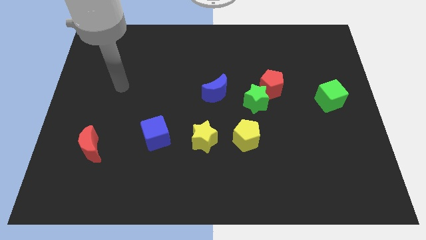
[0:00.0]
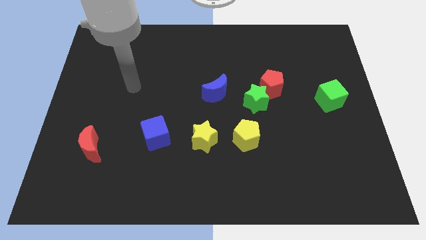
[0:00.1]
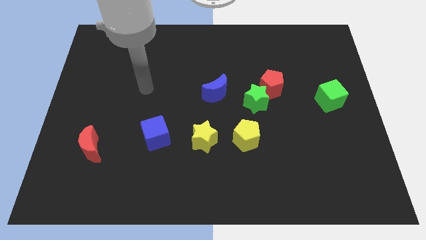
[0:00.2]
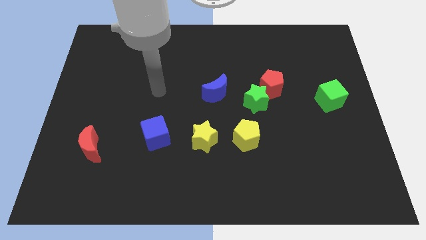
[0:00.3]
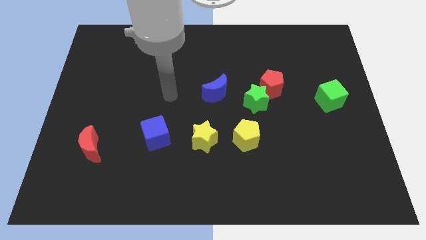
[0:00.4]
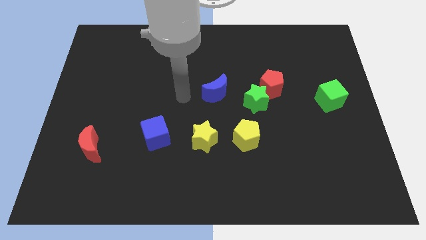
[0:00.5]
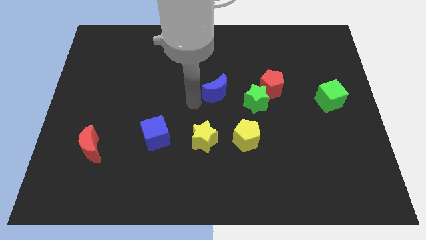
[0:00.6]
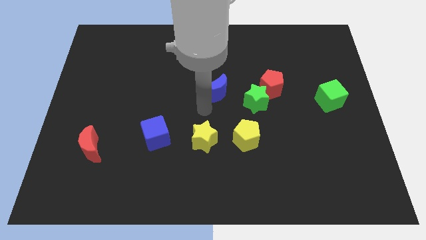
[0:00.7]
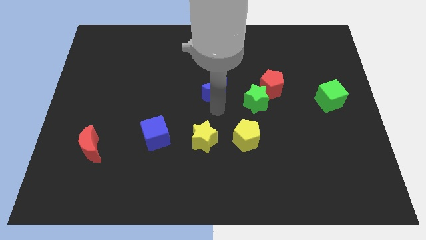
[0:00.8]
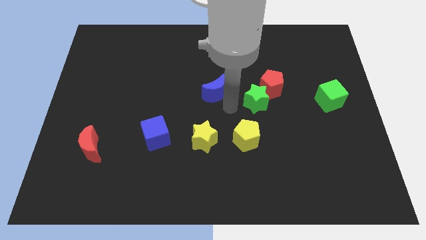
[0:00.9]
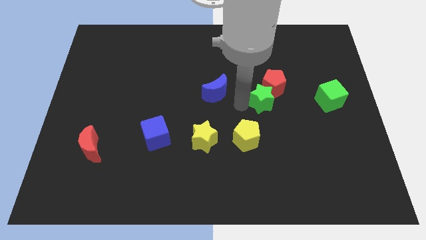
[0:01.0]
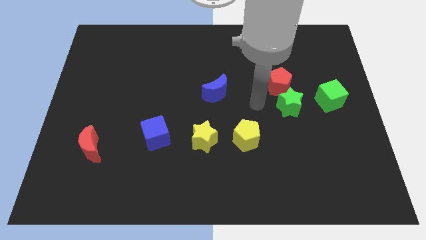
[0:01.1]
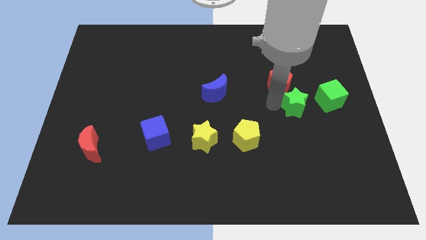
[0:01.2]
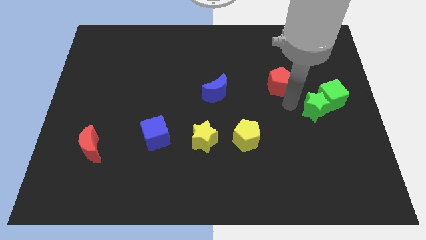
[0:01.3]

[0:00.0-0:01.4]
move the red pentagon away from the green star

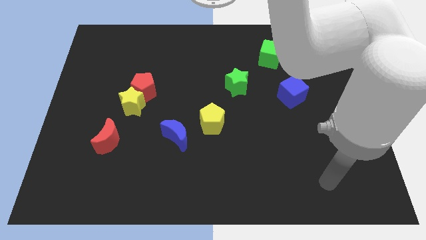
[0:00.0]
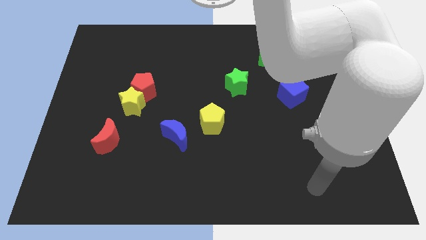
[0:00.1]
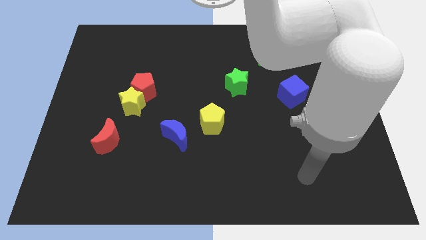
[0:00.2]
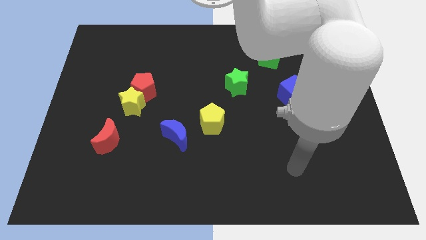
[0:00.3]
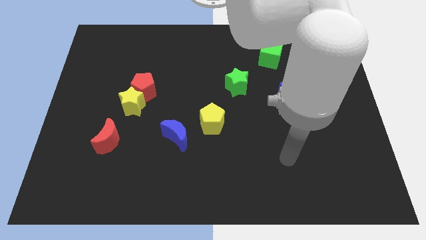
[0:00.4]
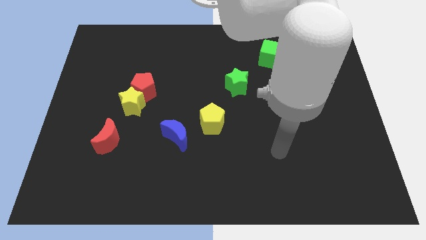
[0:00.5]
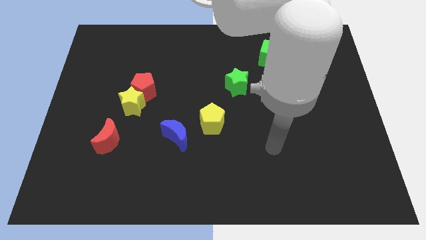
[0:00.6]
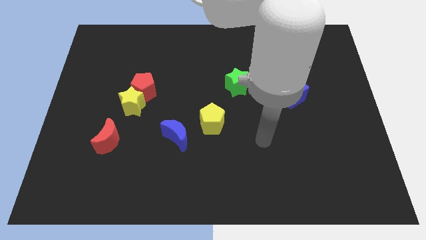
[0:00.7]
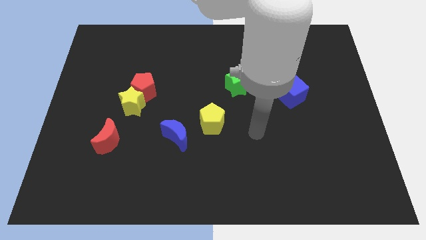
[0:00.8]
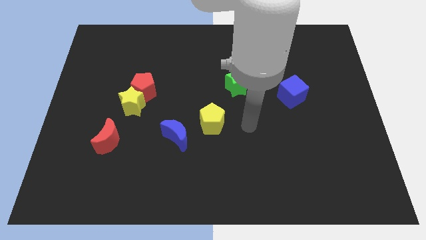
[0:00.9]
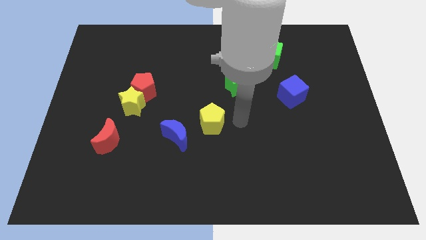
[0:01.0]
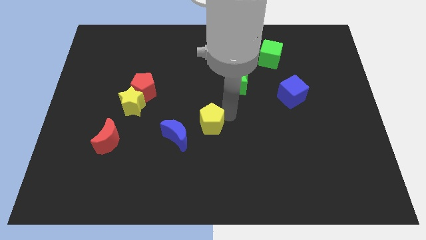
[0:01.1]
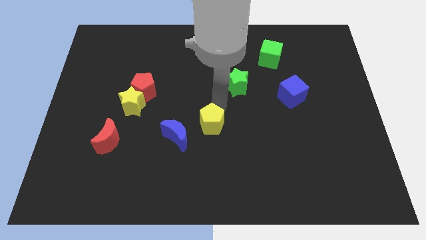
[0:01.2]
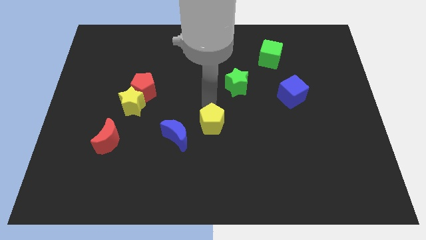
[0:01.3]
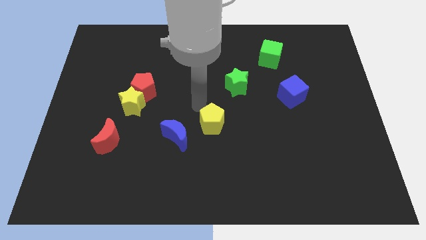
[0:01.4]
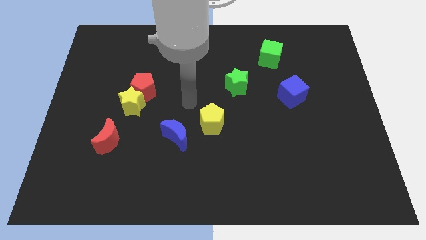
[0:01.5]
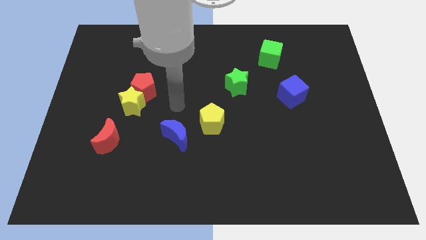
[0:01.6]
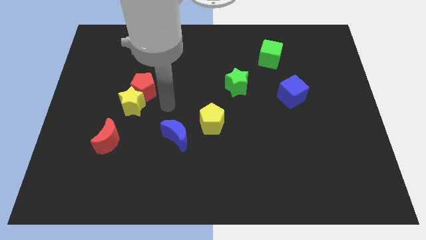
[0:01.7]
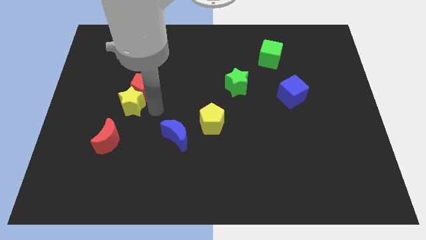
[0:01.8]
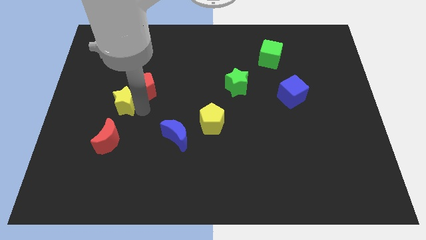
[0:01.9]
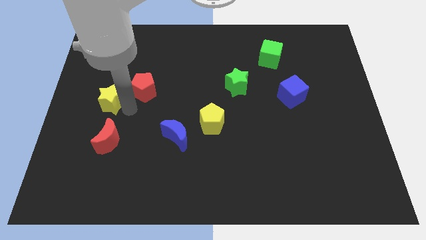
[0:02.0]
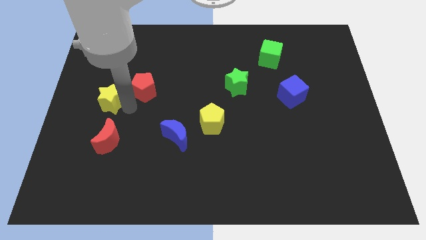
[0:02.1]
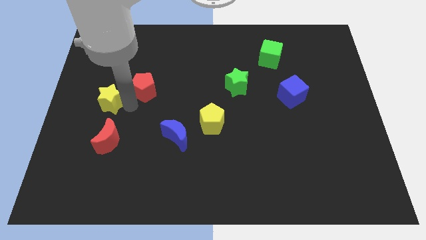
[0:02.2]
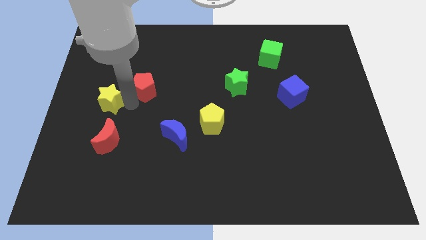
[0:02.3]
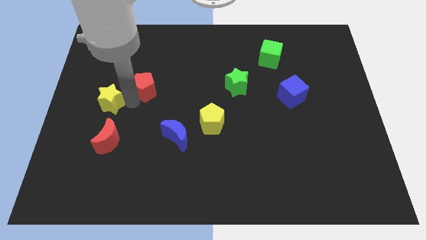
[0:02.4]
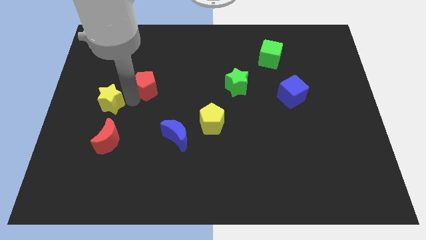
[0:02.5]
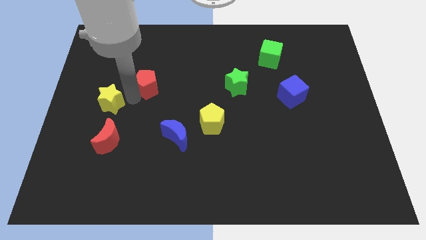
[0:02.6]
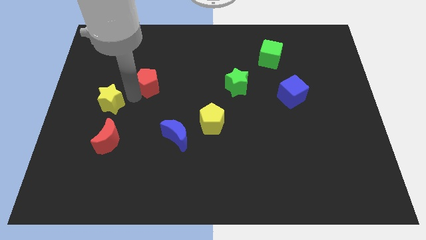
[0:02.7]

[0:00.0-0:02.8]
separate the red pentagon from the yellow star

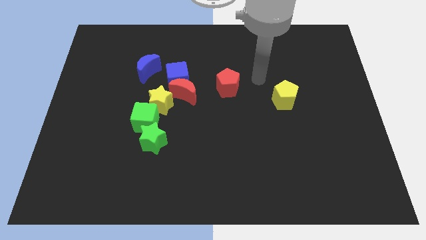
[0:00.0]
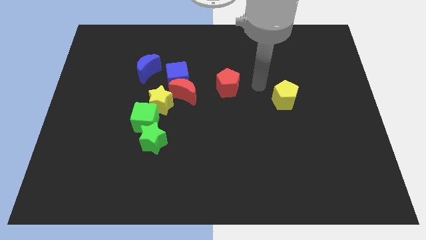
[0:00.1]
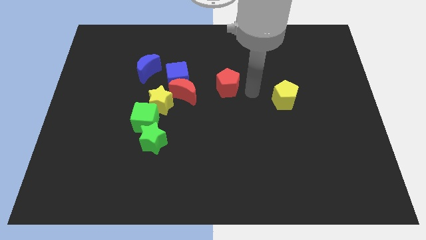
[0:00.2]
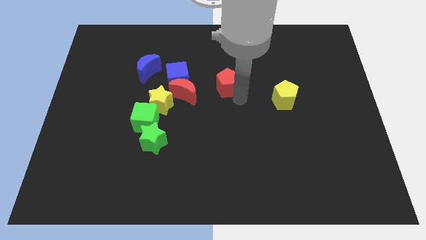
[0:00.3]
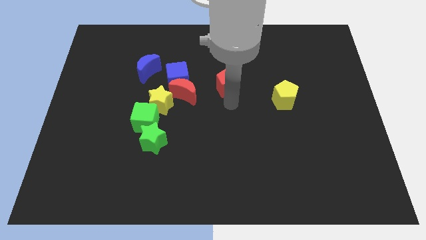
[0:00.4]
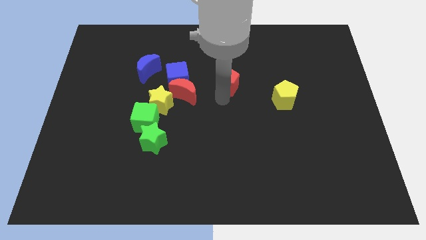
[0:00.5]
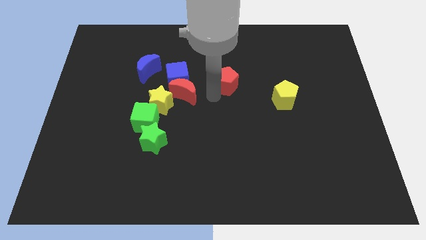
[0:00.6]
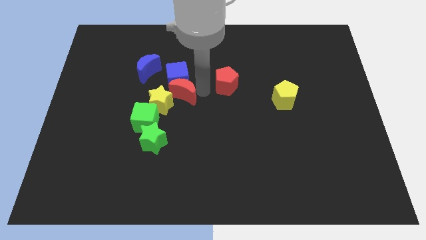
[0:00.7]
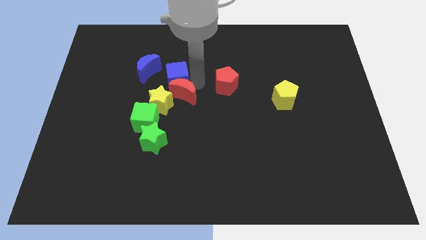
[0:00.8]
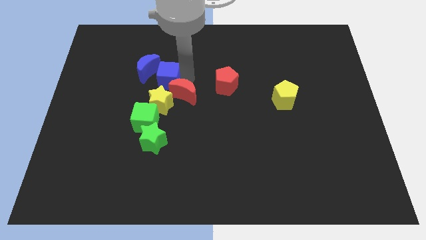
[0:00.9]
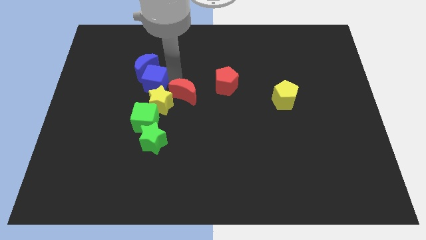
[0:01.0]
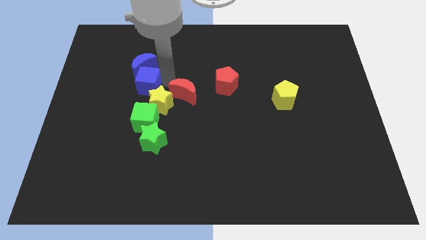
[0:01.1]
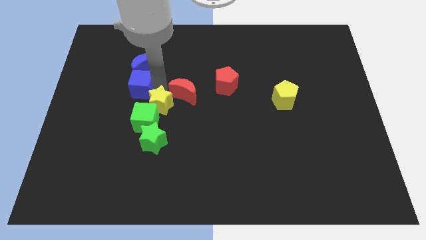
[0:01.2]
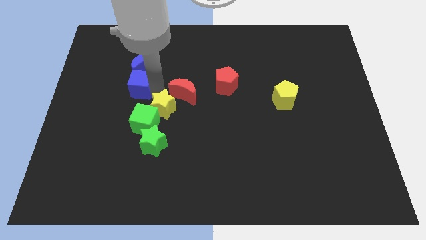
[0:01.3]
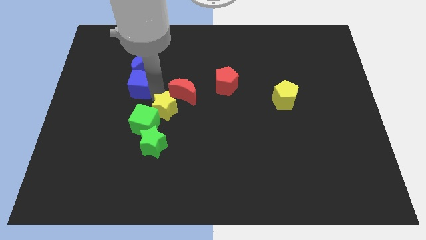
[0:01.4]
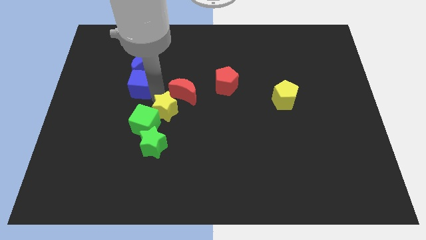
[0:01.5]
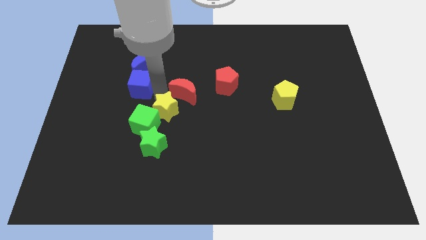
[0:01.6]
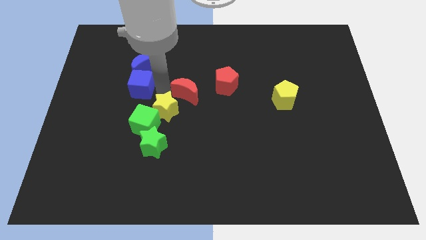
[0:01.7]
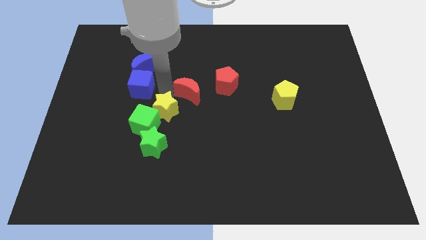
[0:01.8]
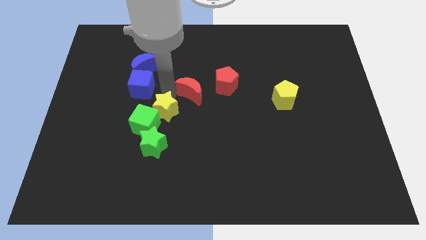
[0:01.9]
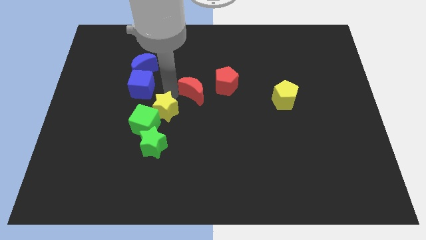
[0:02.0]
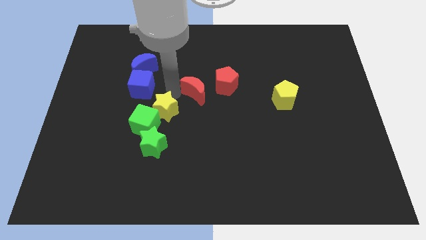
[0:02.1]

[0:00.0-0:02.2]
move the red moon away from the blue cube and yellow star

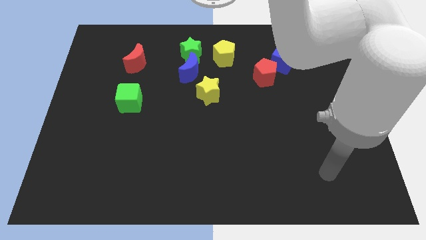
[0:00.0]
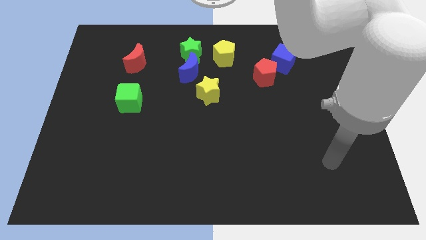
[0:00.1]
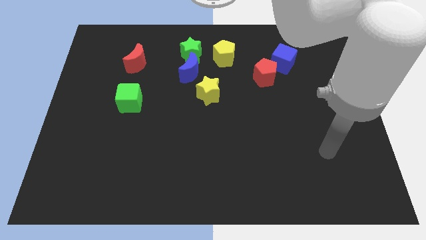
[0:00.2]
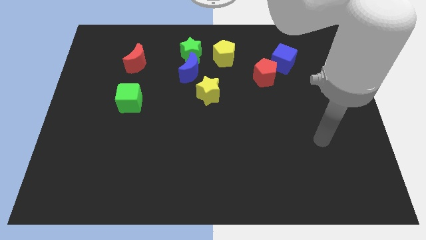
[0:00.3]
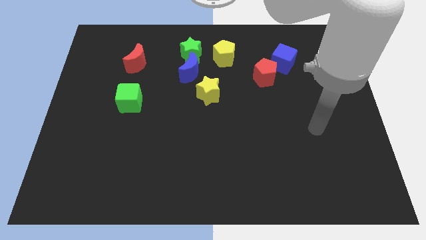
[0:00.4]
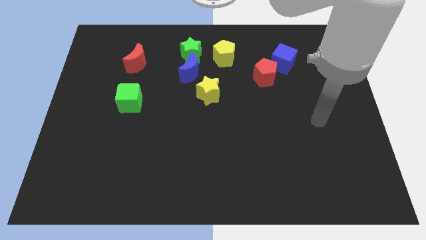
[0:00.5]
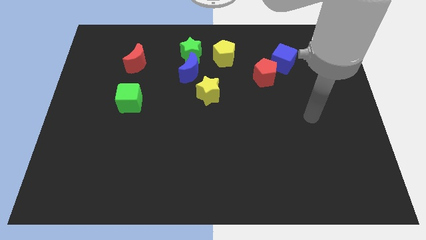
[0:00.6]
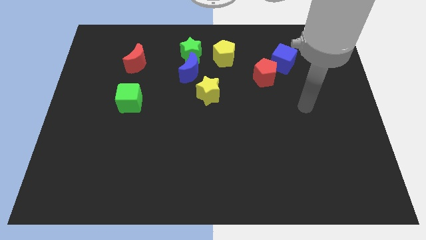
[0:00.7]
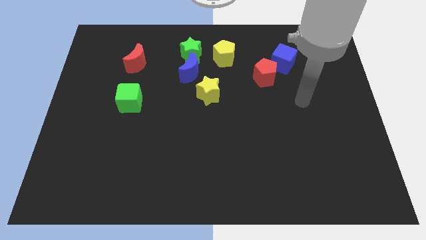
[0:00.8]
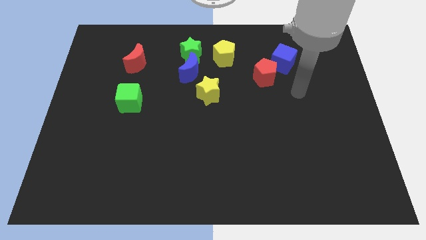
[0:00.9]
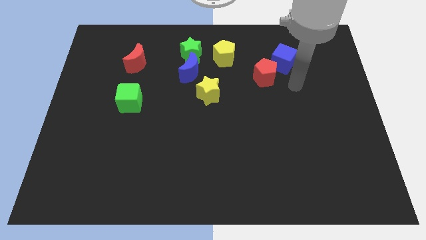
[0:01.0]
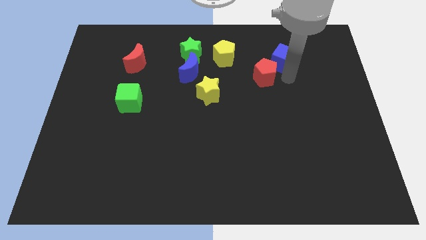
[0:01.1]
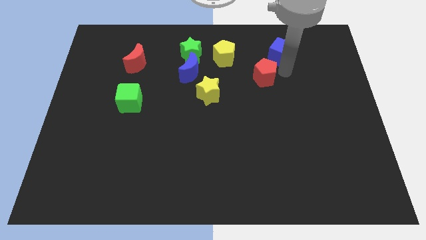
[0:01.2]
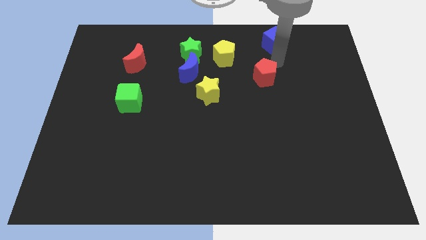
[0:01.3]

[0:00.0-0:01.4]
move the red pentagon away from the blue cube

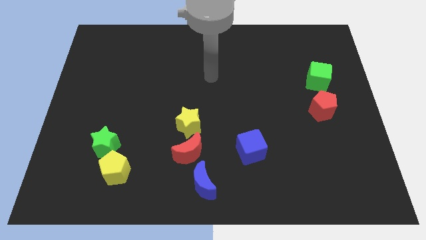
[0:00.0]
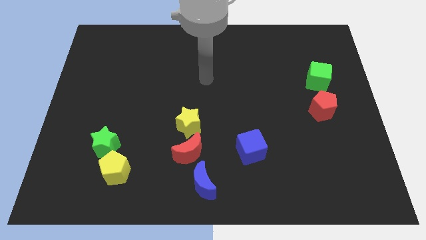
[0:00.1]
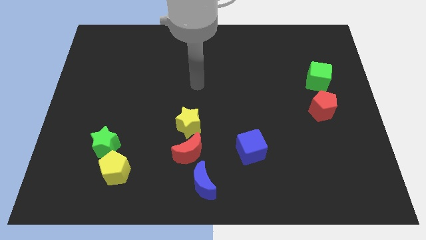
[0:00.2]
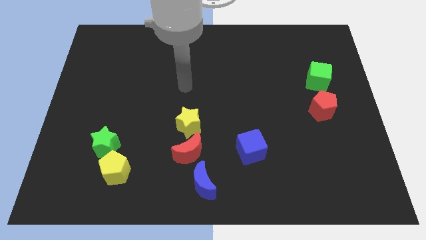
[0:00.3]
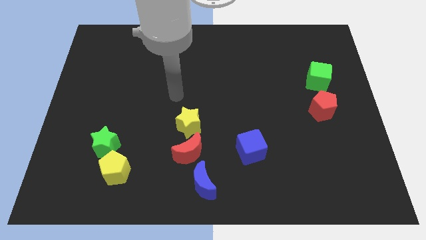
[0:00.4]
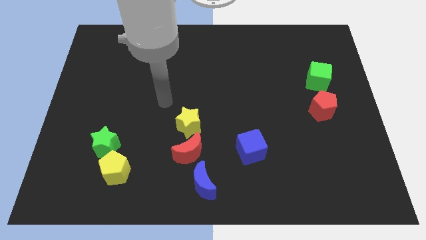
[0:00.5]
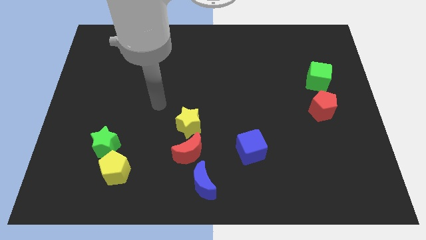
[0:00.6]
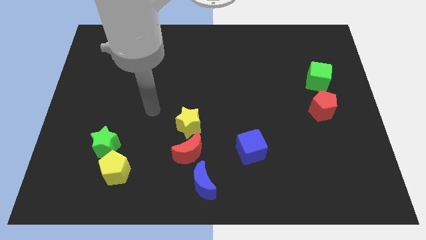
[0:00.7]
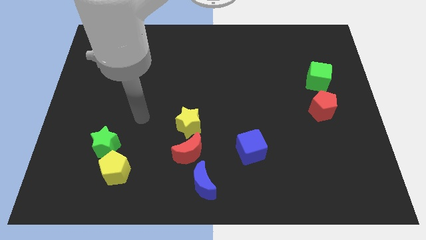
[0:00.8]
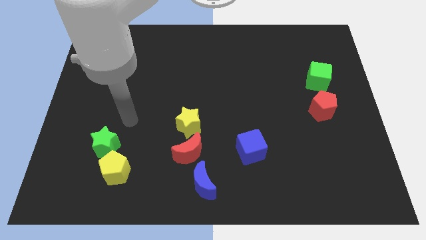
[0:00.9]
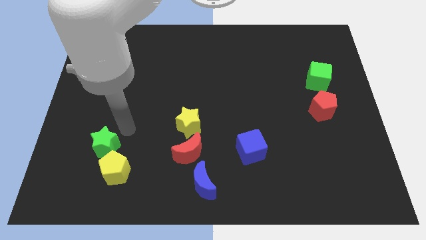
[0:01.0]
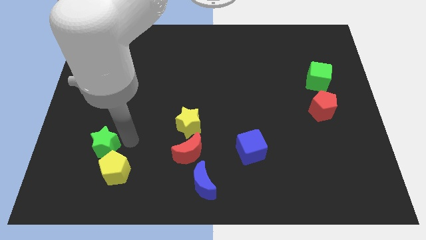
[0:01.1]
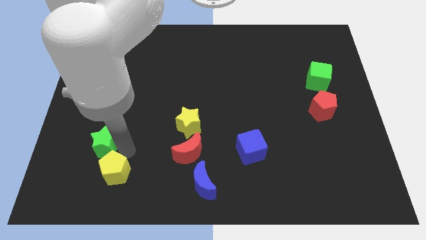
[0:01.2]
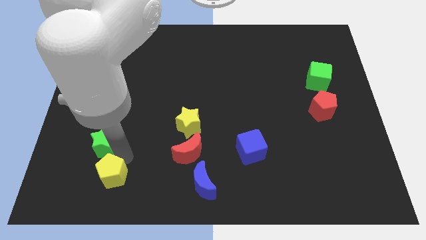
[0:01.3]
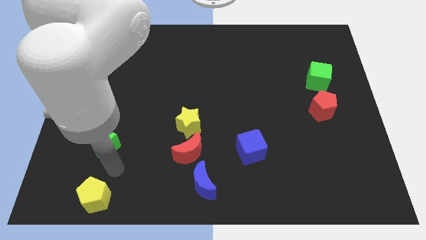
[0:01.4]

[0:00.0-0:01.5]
move the green star away from the yellow pentagon

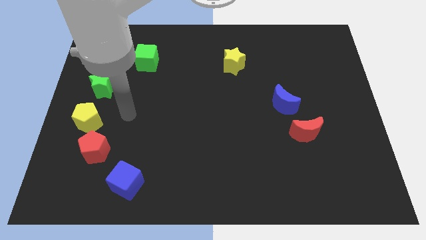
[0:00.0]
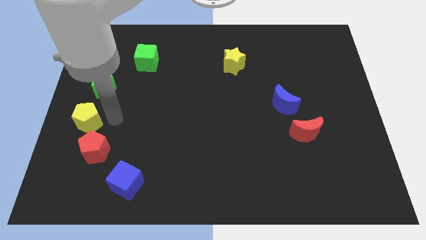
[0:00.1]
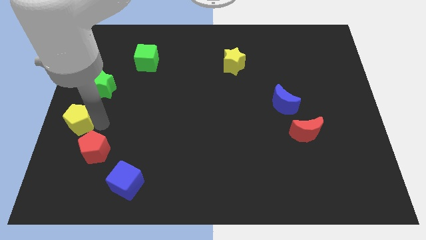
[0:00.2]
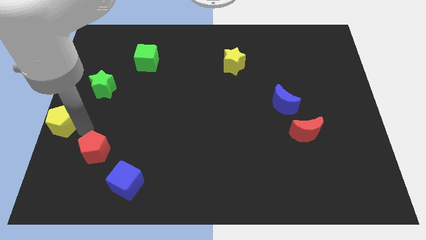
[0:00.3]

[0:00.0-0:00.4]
separate the red pentagon from the yellow pentagon
